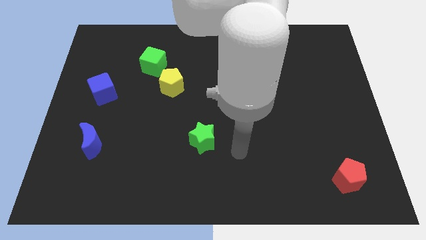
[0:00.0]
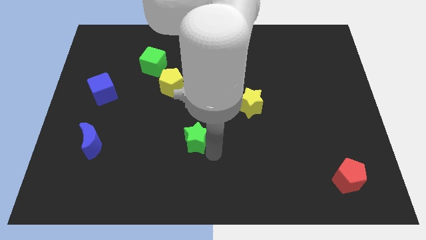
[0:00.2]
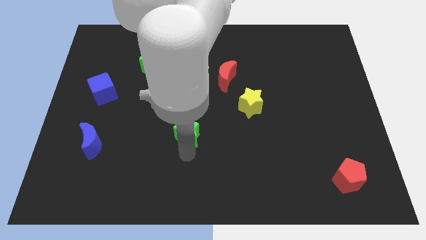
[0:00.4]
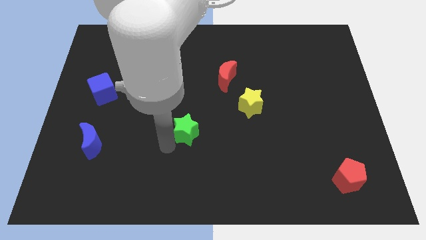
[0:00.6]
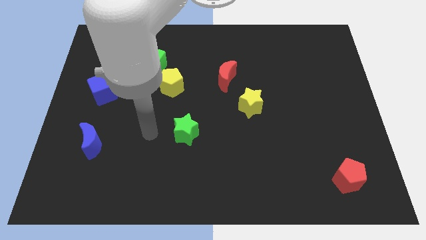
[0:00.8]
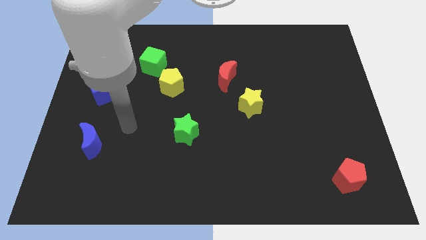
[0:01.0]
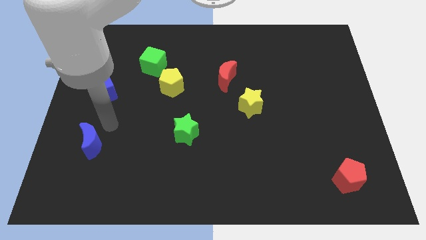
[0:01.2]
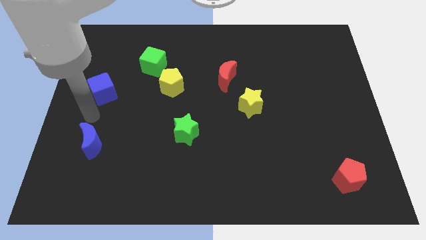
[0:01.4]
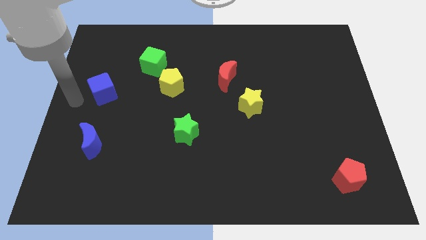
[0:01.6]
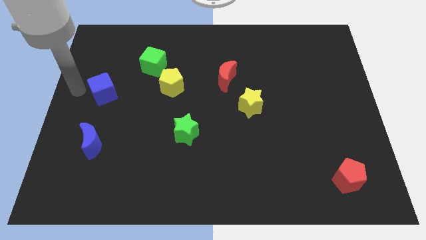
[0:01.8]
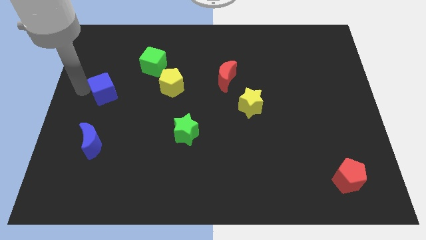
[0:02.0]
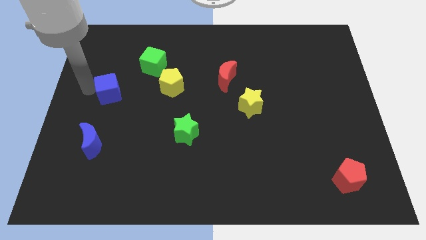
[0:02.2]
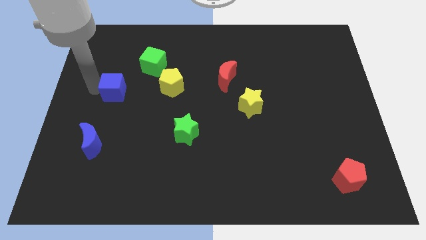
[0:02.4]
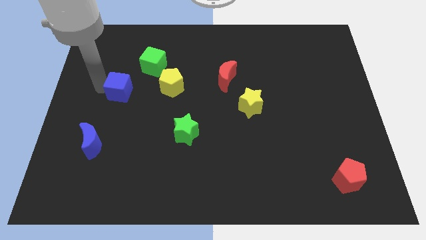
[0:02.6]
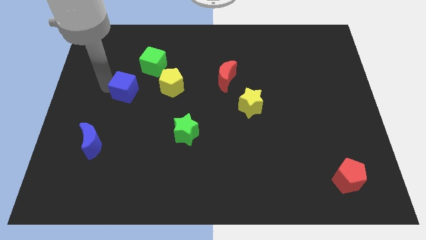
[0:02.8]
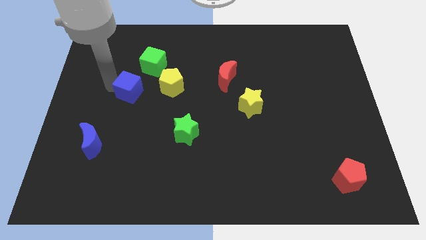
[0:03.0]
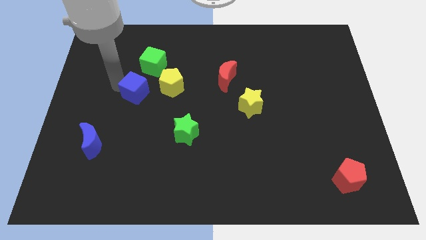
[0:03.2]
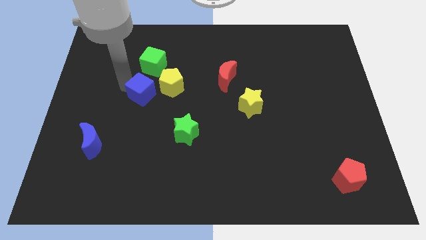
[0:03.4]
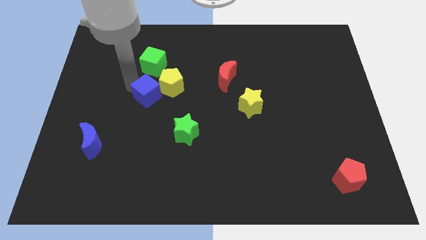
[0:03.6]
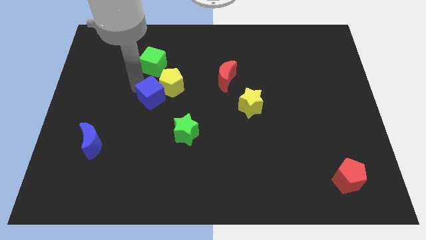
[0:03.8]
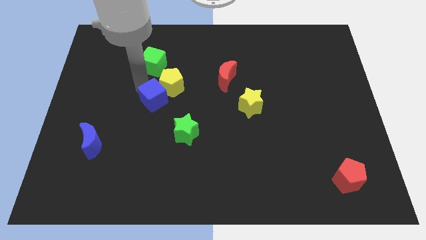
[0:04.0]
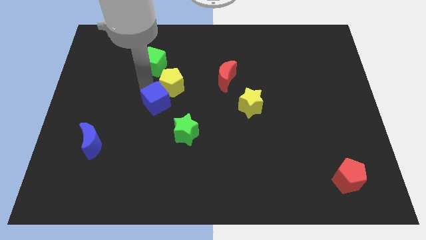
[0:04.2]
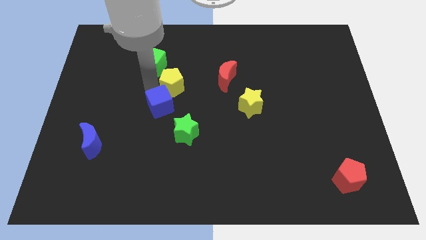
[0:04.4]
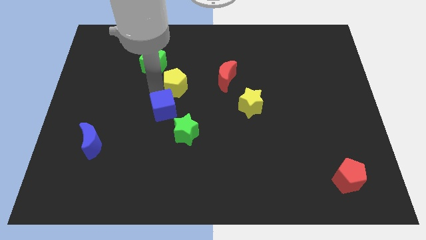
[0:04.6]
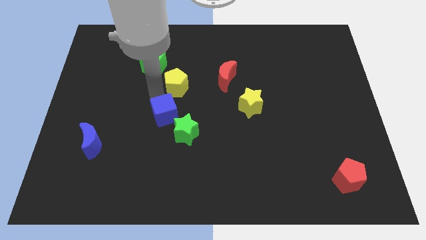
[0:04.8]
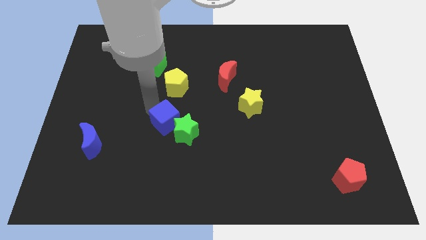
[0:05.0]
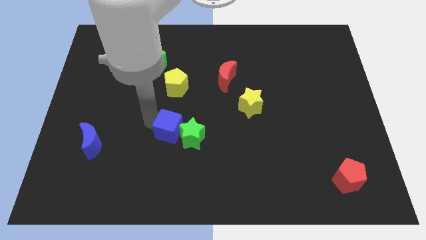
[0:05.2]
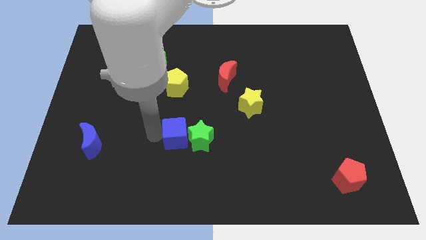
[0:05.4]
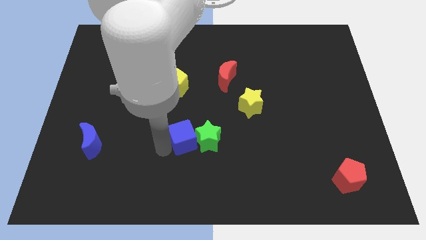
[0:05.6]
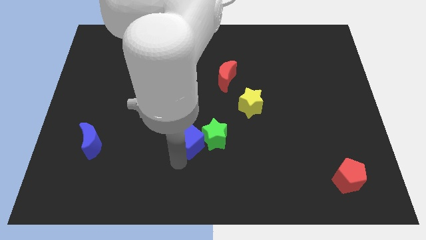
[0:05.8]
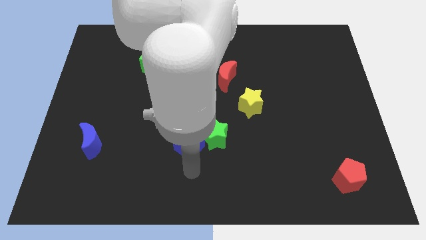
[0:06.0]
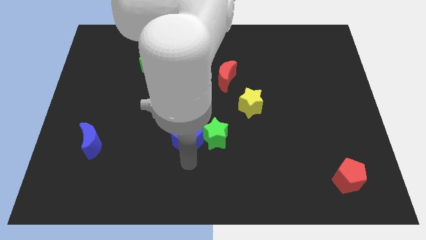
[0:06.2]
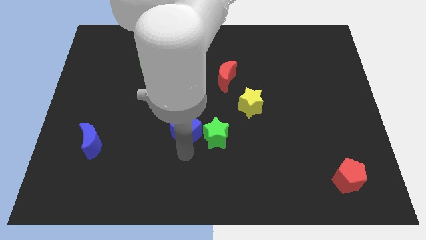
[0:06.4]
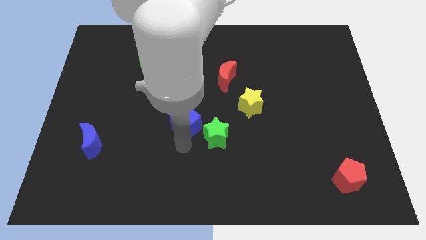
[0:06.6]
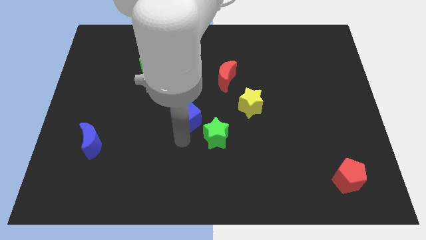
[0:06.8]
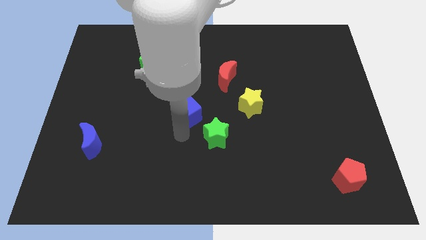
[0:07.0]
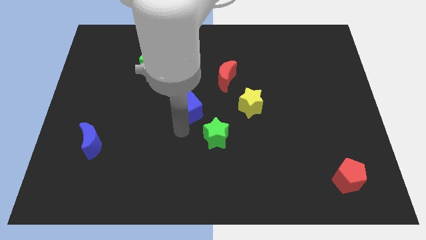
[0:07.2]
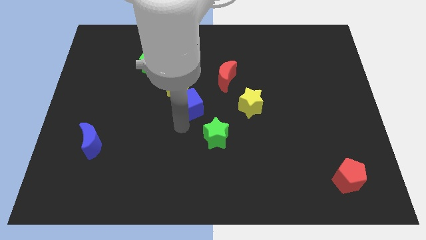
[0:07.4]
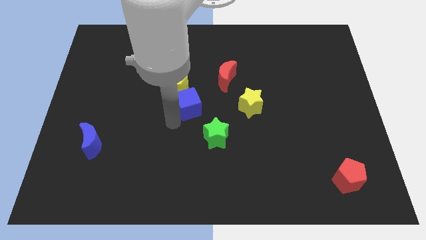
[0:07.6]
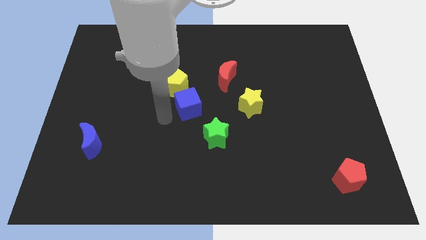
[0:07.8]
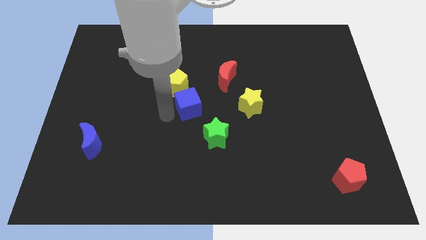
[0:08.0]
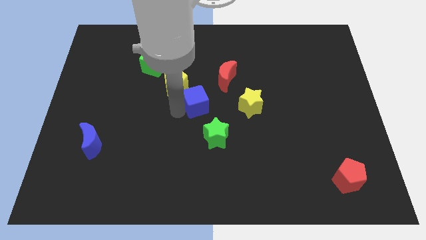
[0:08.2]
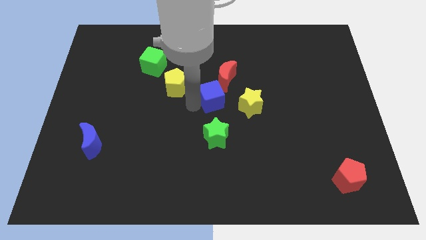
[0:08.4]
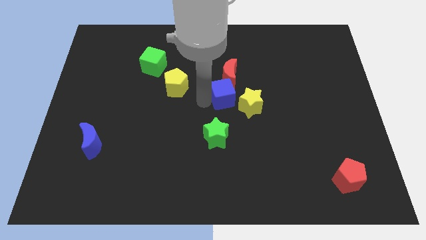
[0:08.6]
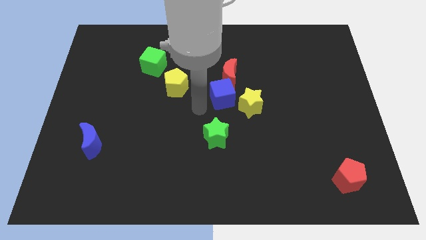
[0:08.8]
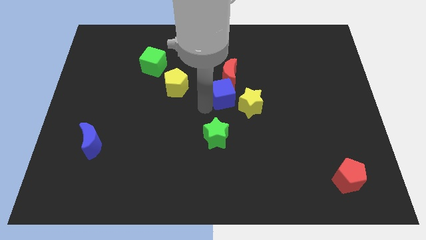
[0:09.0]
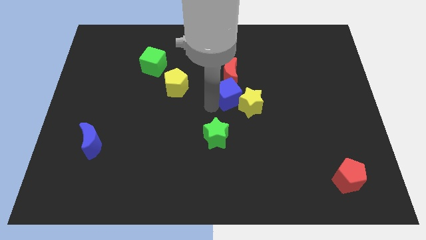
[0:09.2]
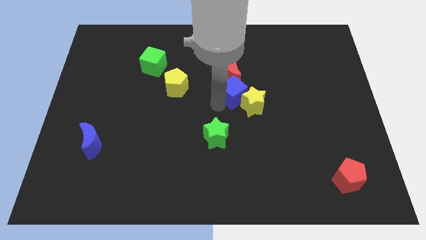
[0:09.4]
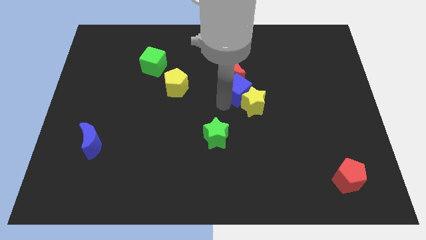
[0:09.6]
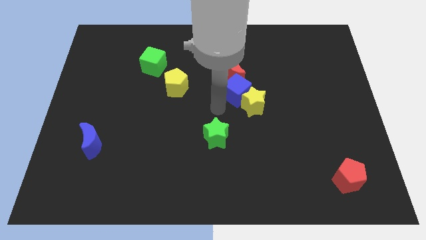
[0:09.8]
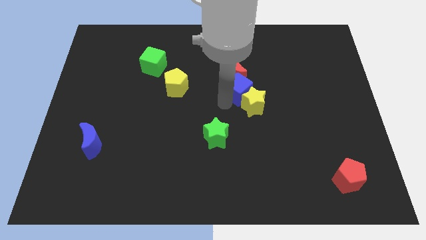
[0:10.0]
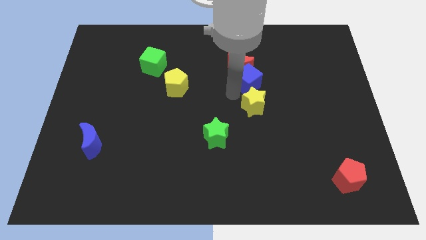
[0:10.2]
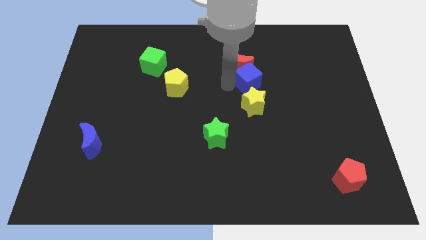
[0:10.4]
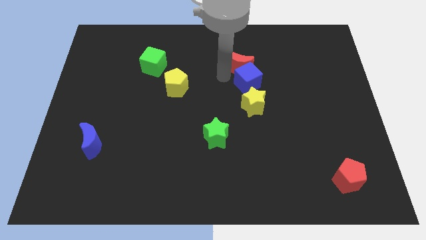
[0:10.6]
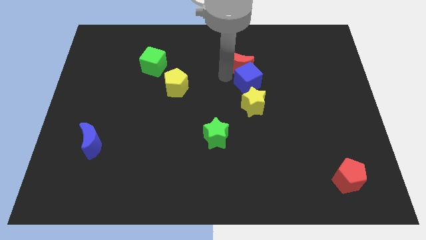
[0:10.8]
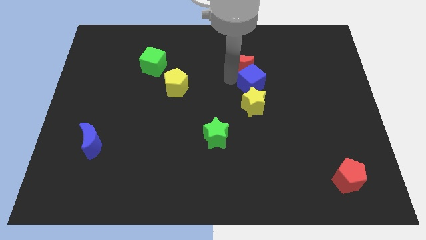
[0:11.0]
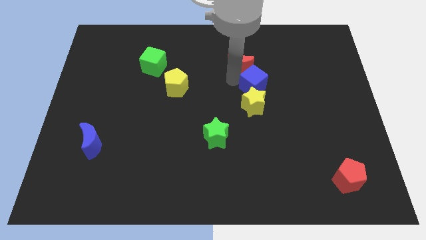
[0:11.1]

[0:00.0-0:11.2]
slide the blue cube to the top right of the yellow star

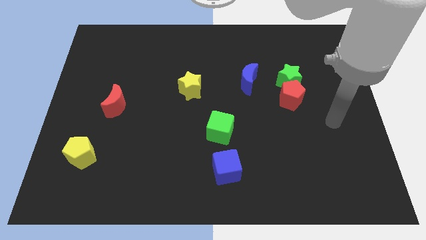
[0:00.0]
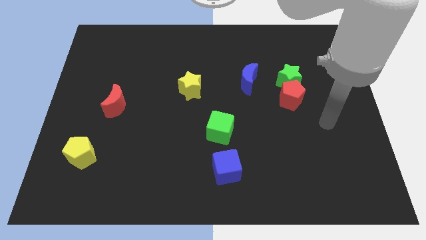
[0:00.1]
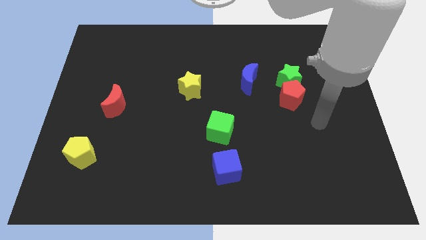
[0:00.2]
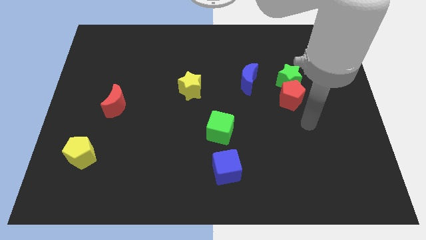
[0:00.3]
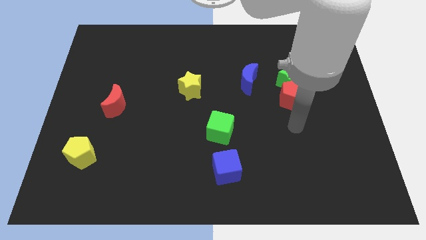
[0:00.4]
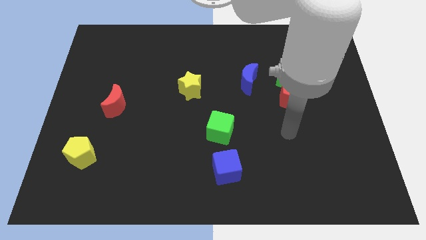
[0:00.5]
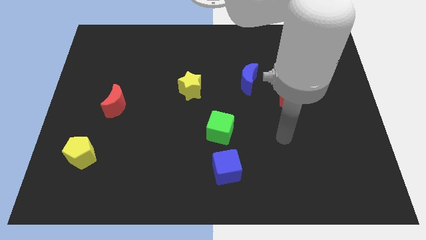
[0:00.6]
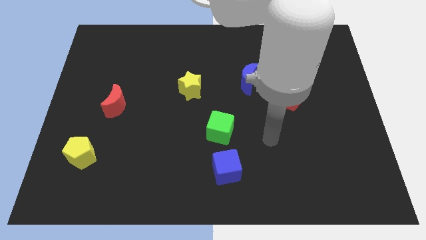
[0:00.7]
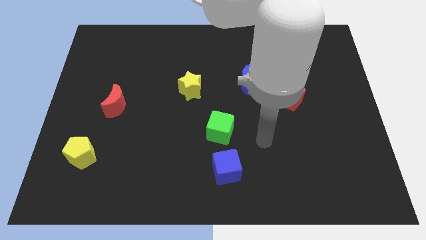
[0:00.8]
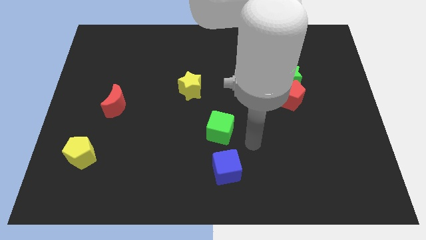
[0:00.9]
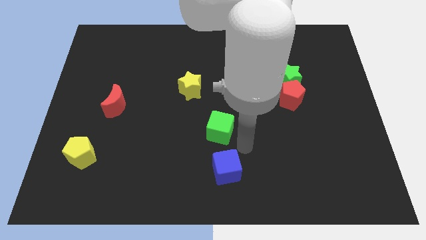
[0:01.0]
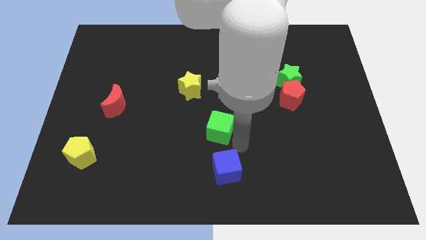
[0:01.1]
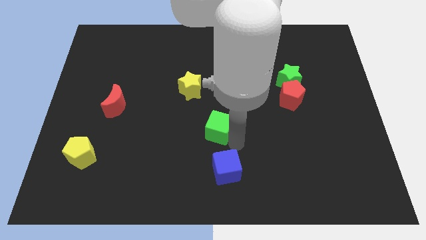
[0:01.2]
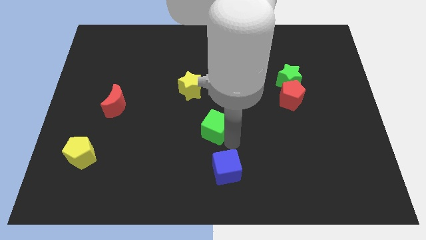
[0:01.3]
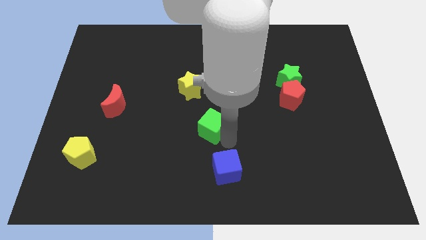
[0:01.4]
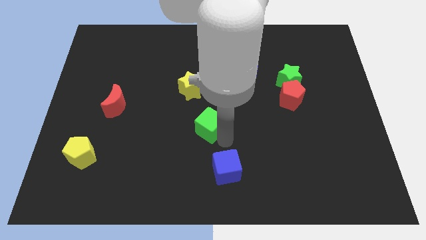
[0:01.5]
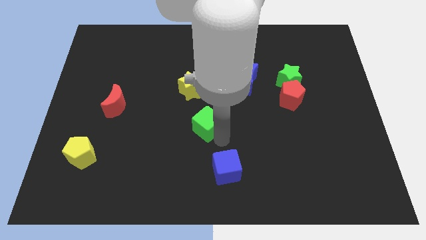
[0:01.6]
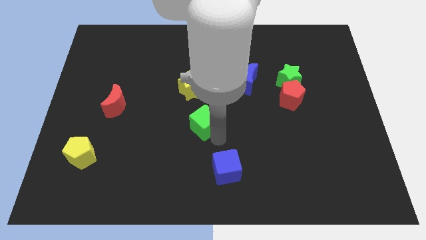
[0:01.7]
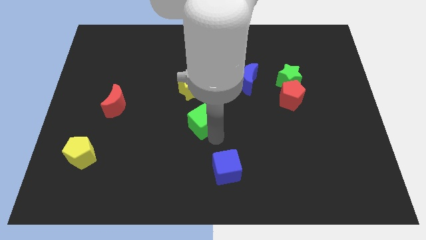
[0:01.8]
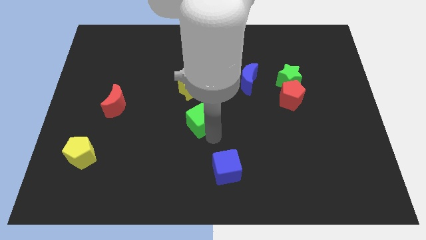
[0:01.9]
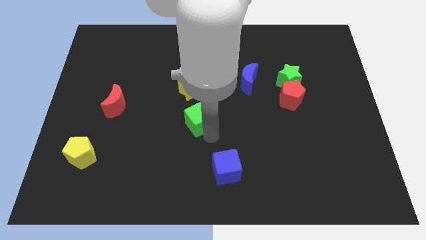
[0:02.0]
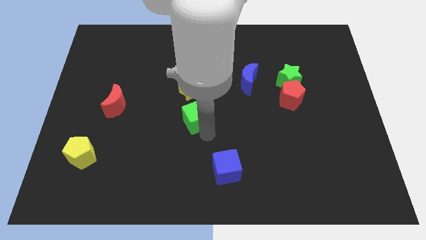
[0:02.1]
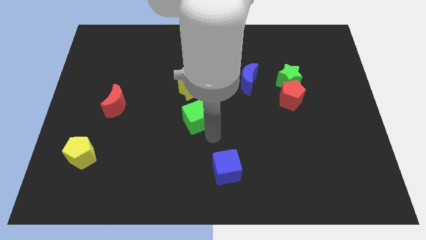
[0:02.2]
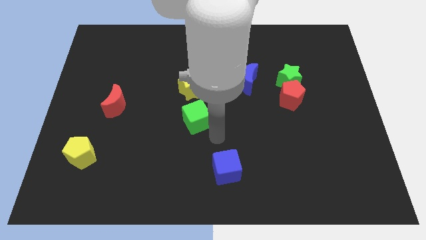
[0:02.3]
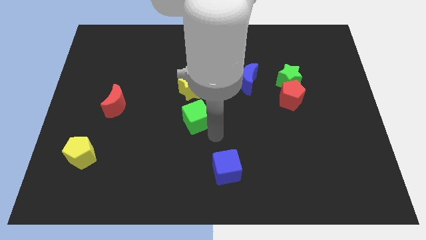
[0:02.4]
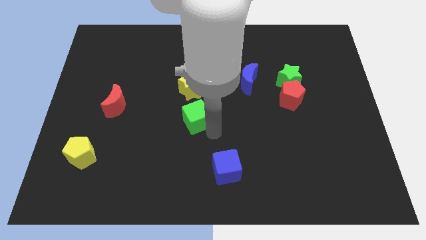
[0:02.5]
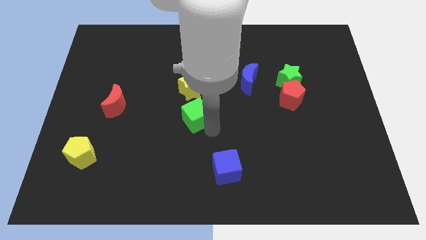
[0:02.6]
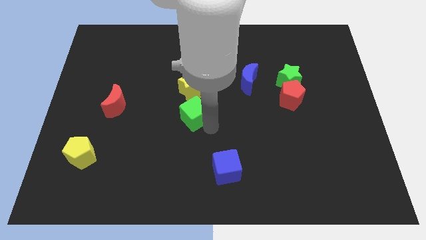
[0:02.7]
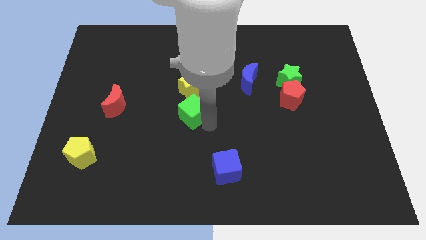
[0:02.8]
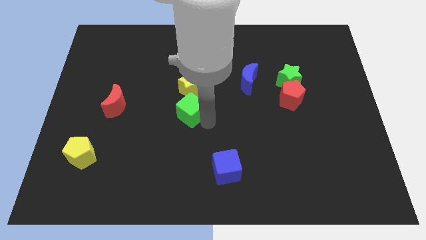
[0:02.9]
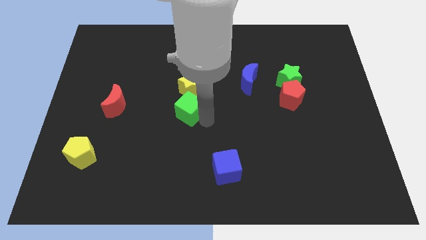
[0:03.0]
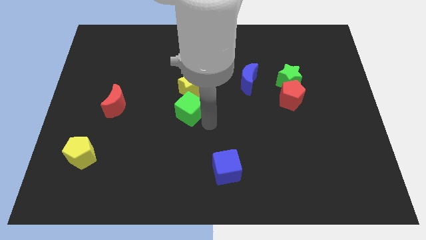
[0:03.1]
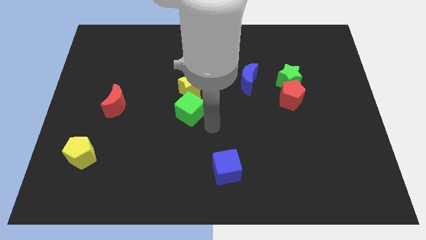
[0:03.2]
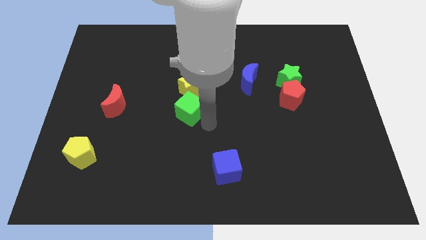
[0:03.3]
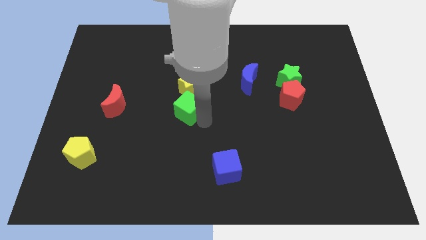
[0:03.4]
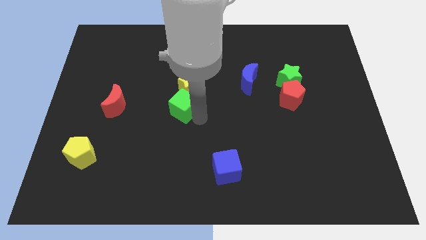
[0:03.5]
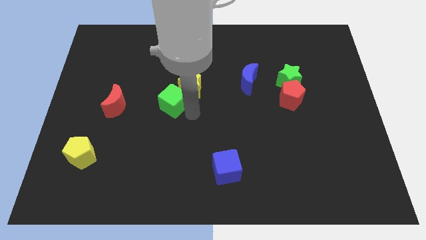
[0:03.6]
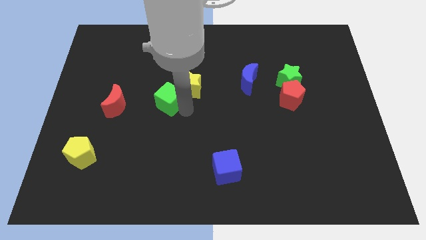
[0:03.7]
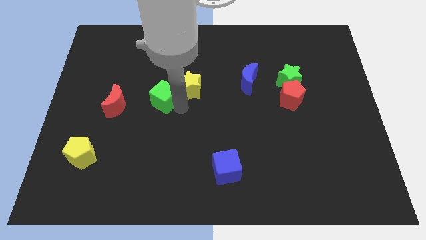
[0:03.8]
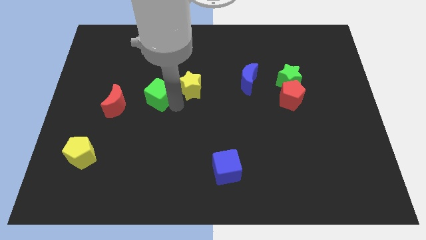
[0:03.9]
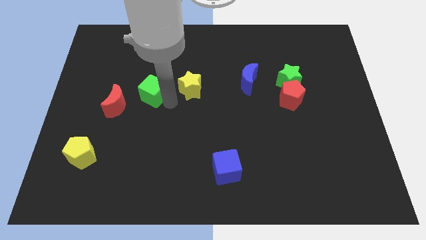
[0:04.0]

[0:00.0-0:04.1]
move the green cube to the top right of the red moon
